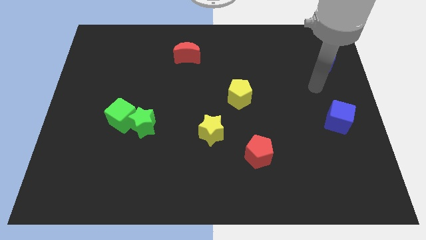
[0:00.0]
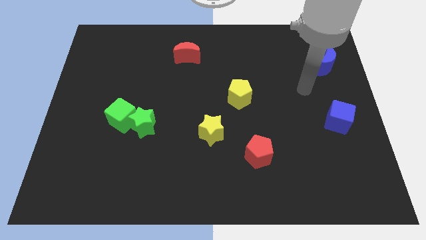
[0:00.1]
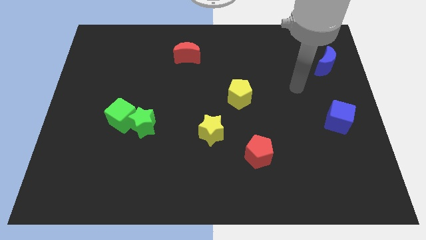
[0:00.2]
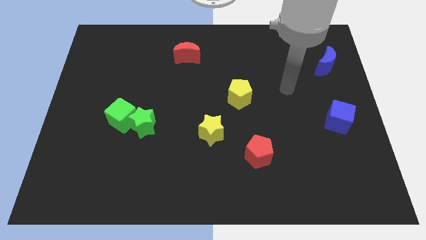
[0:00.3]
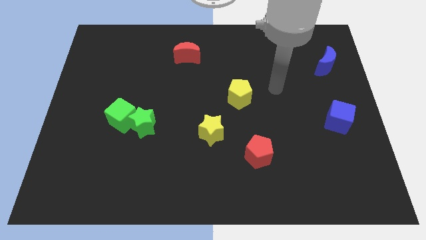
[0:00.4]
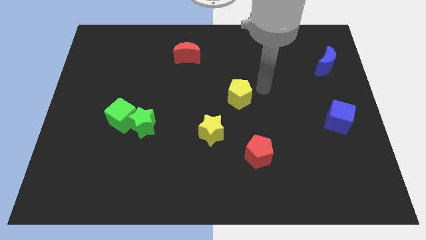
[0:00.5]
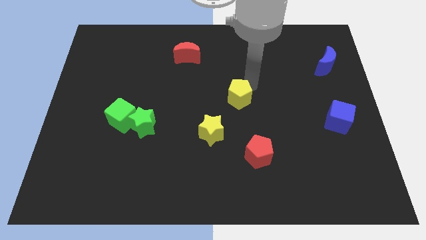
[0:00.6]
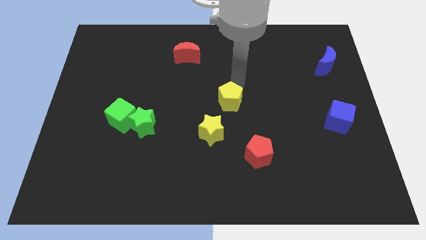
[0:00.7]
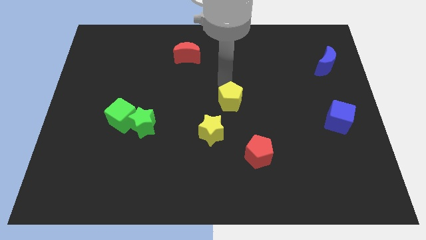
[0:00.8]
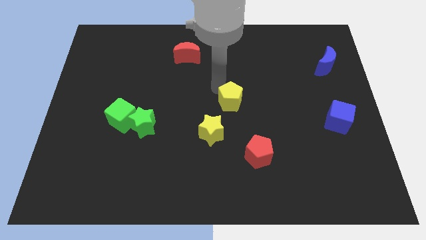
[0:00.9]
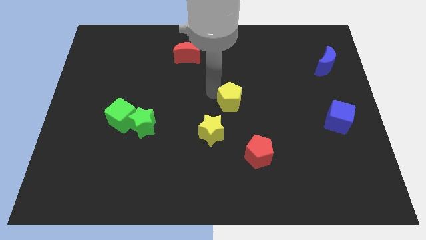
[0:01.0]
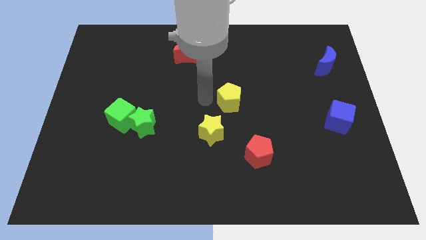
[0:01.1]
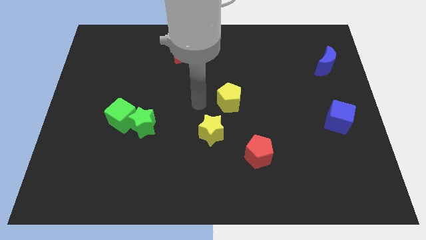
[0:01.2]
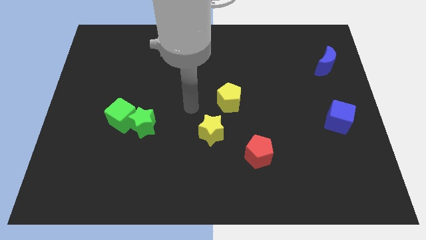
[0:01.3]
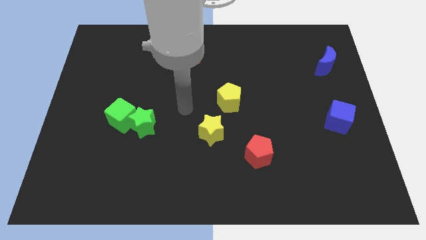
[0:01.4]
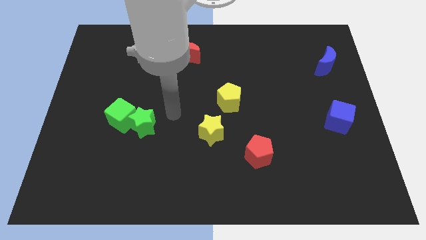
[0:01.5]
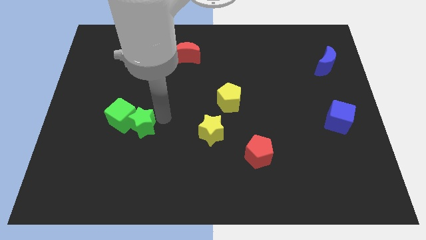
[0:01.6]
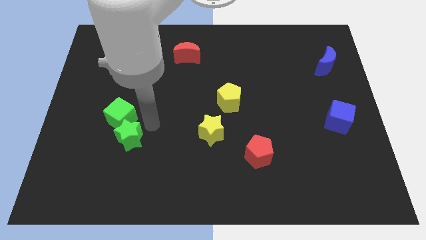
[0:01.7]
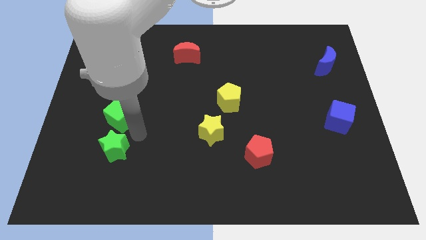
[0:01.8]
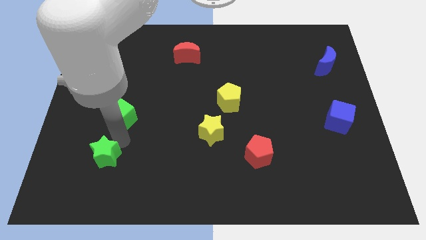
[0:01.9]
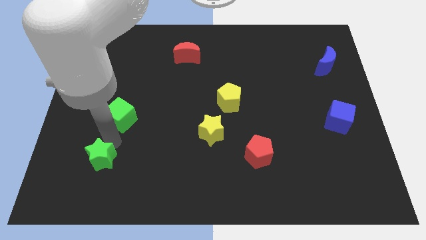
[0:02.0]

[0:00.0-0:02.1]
separate the green cube from the green star

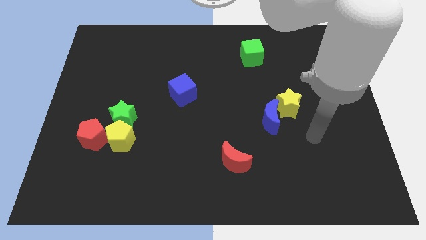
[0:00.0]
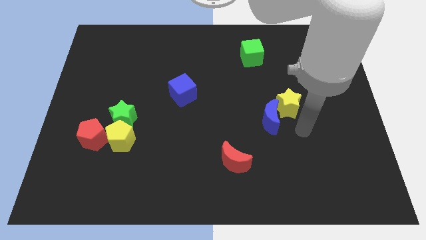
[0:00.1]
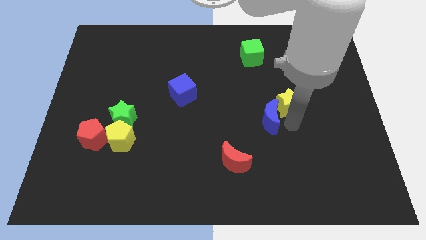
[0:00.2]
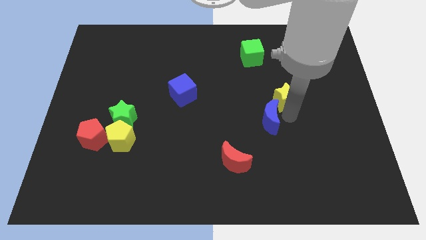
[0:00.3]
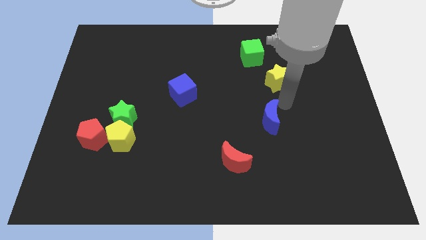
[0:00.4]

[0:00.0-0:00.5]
pull the blue moon apart from the yellow star

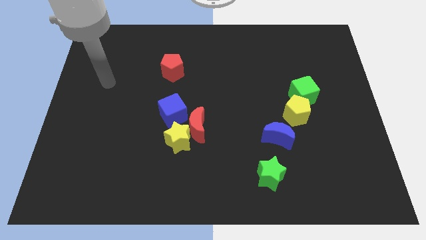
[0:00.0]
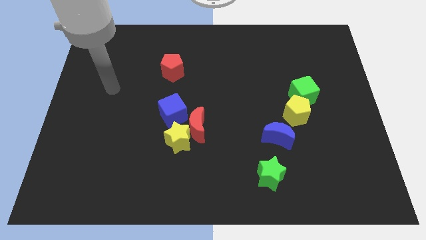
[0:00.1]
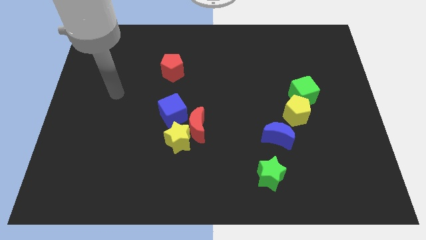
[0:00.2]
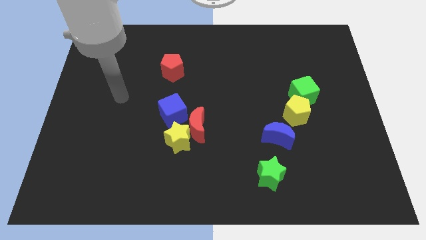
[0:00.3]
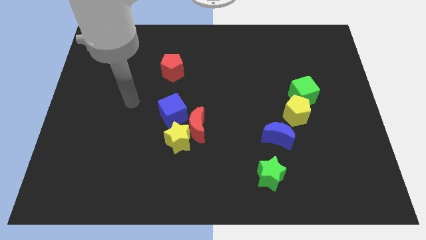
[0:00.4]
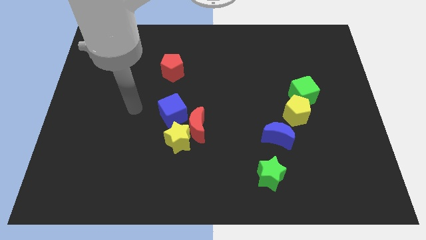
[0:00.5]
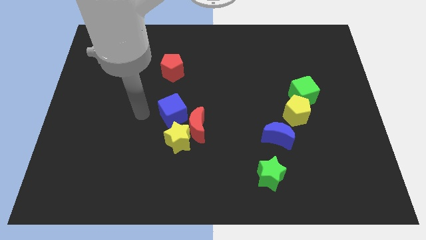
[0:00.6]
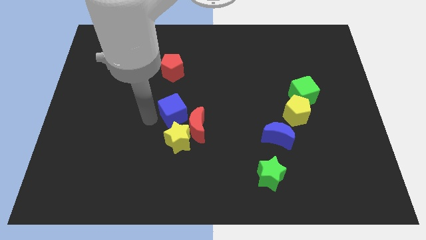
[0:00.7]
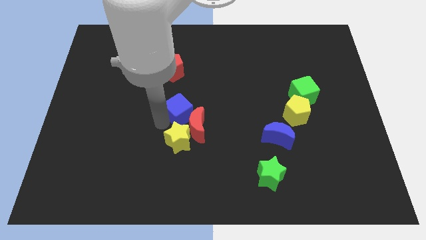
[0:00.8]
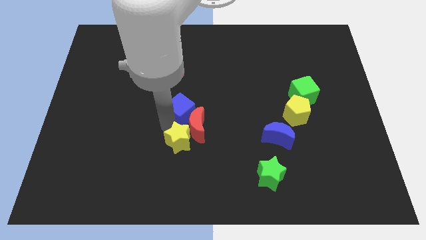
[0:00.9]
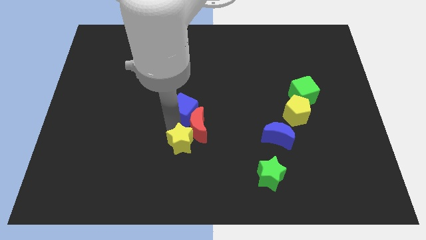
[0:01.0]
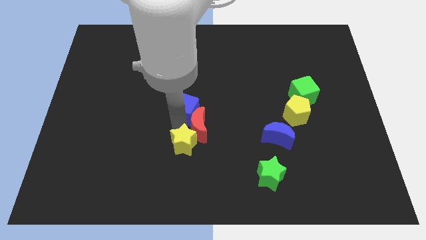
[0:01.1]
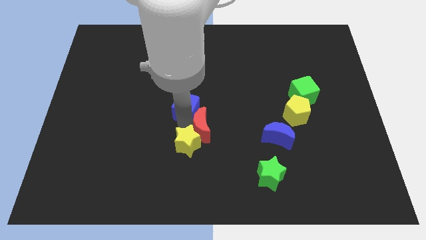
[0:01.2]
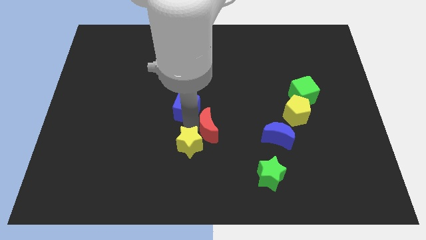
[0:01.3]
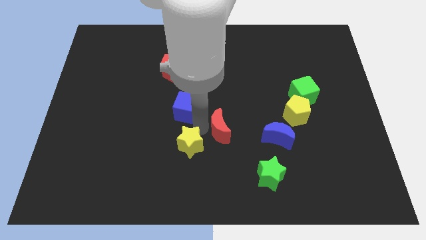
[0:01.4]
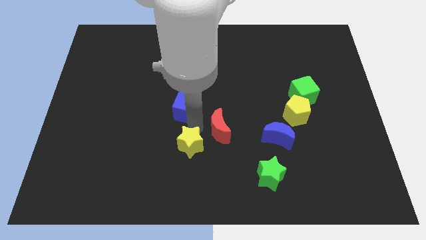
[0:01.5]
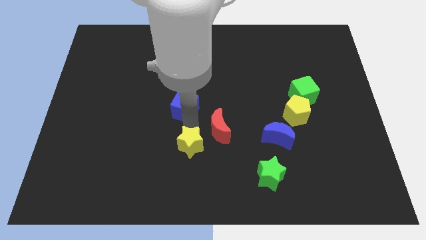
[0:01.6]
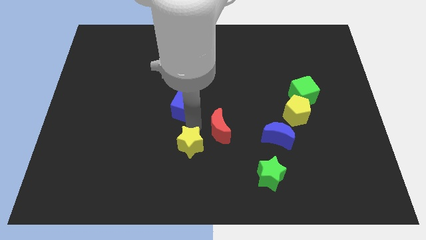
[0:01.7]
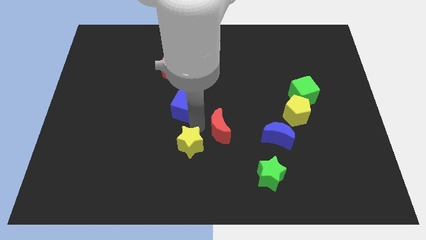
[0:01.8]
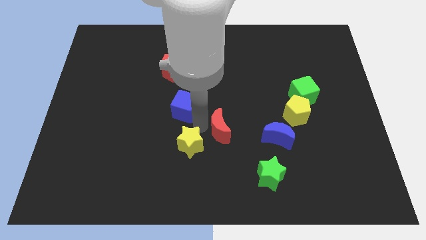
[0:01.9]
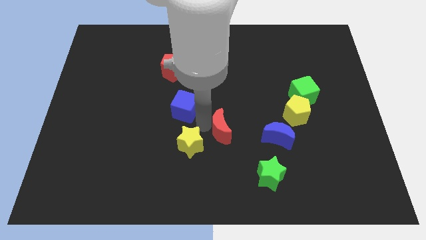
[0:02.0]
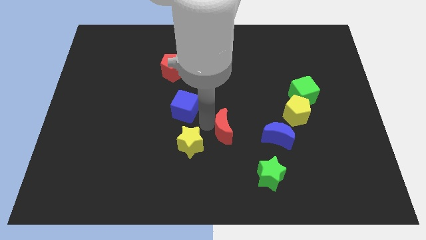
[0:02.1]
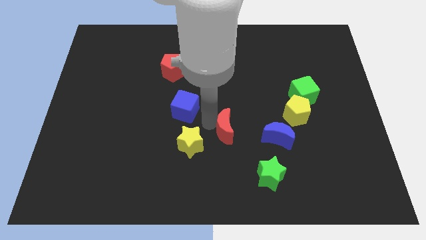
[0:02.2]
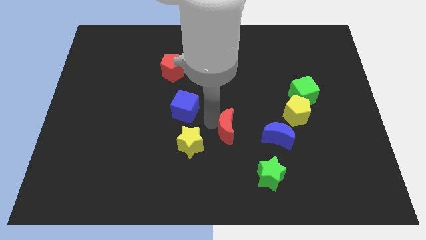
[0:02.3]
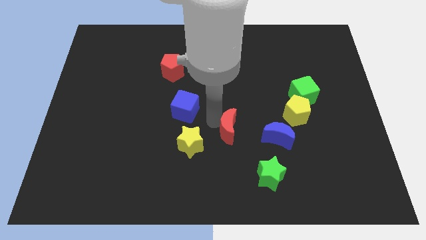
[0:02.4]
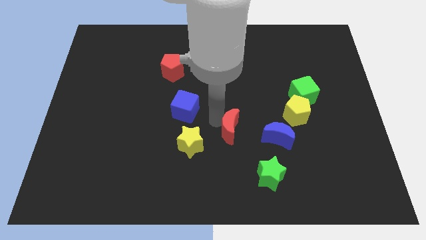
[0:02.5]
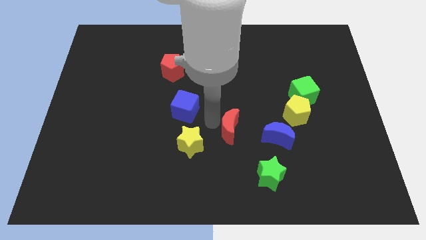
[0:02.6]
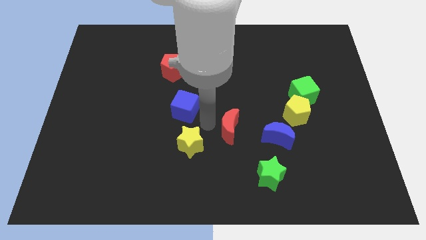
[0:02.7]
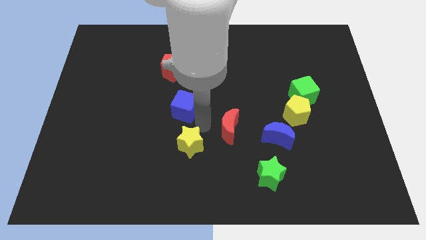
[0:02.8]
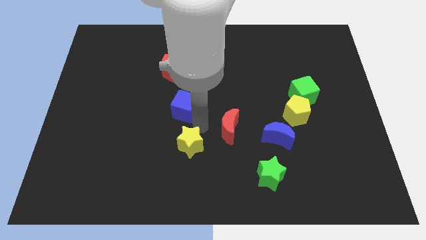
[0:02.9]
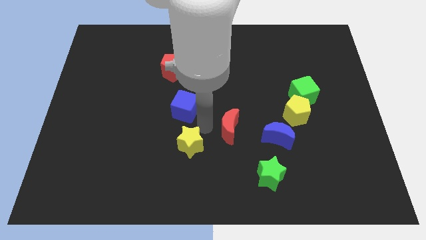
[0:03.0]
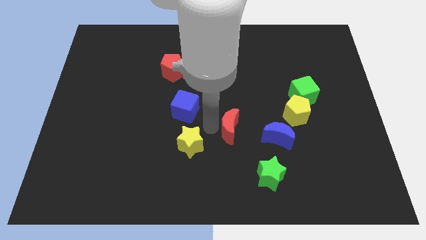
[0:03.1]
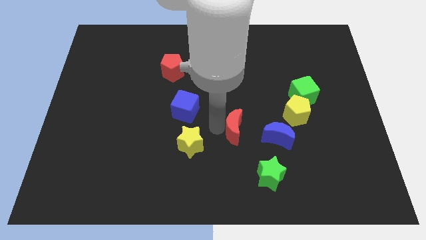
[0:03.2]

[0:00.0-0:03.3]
separate the red moon from the yellow star and blue cube

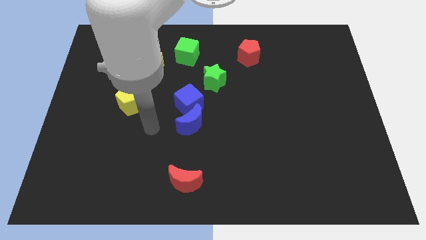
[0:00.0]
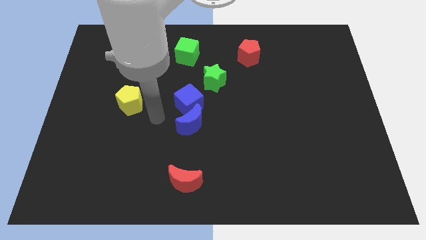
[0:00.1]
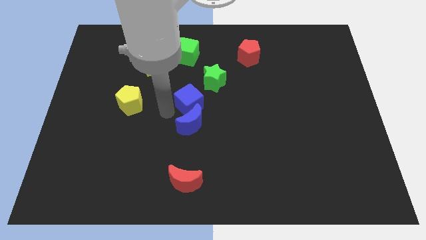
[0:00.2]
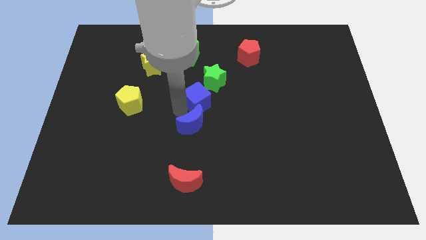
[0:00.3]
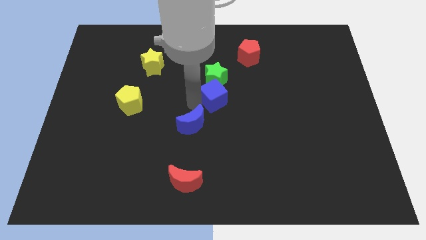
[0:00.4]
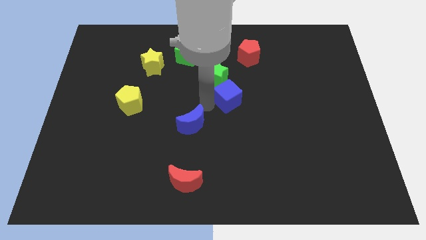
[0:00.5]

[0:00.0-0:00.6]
pull the blue moon apart from the blue cube

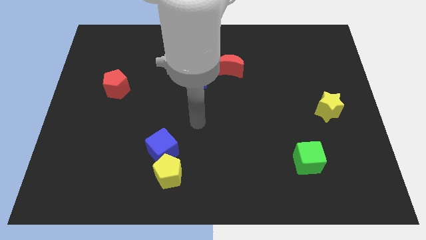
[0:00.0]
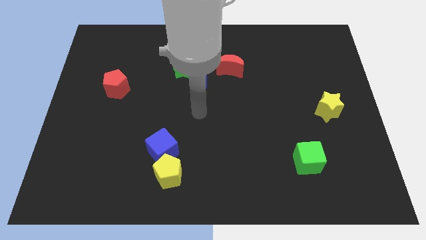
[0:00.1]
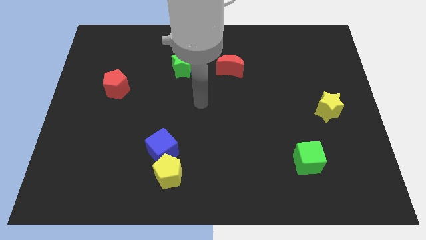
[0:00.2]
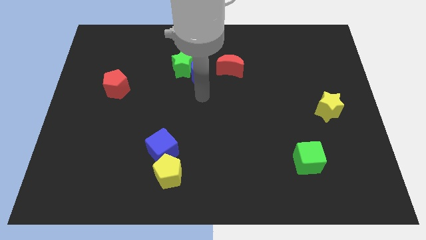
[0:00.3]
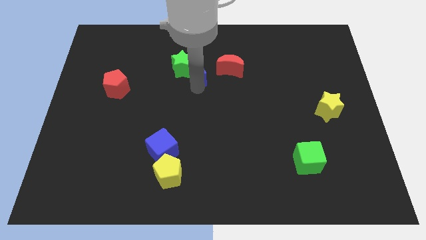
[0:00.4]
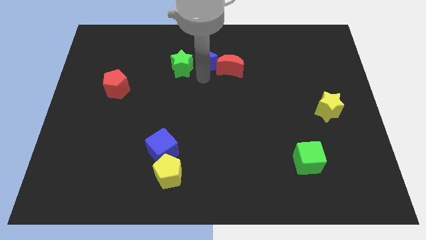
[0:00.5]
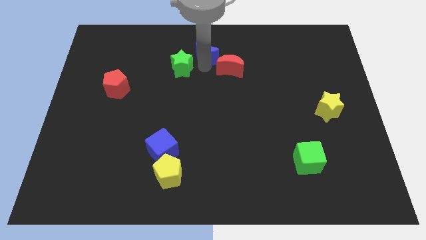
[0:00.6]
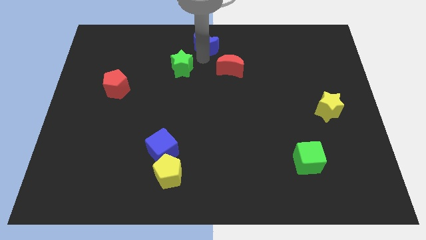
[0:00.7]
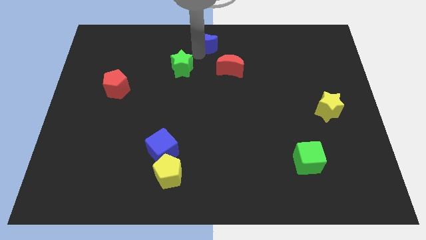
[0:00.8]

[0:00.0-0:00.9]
move the green star away from the blue moon

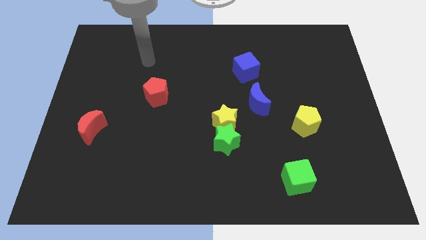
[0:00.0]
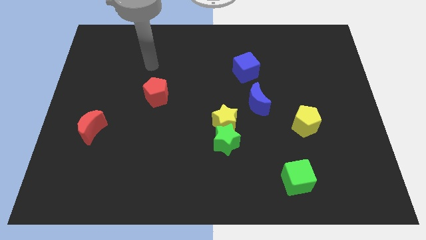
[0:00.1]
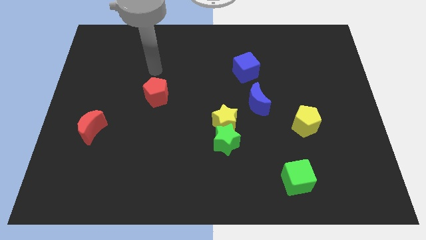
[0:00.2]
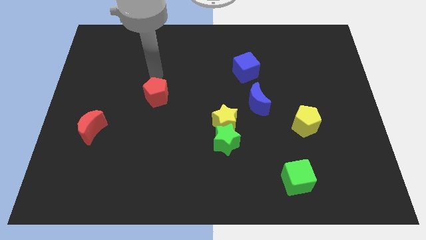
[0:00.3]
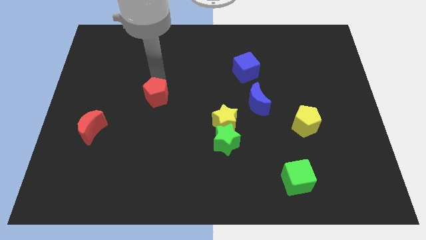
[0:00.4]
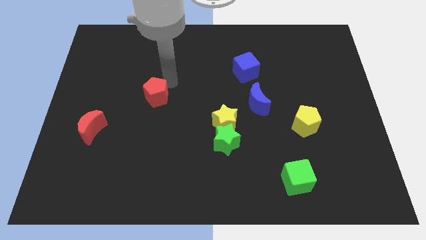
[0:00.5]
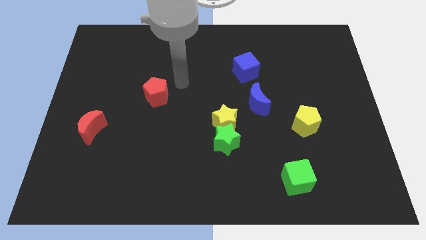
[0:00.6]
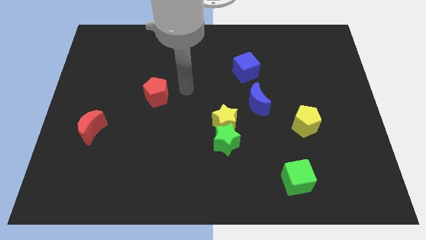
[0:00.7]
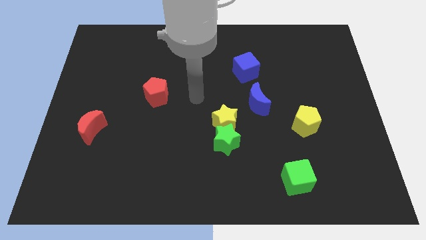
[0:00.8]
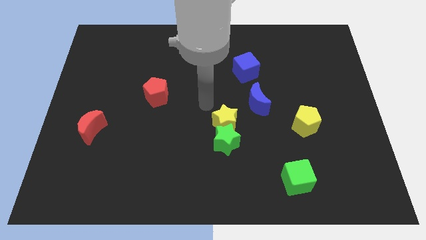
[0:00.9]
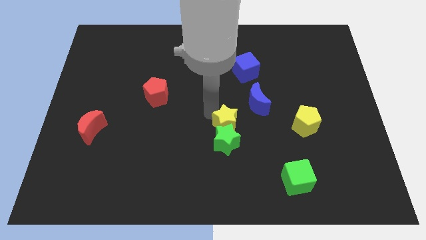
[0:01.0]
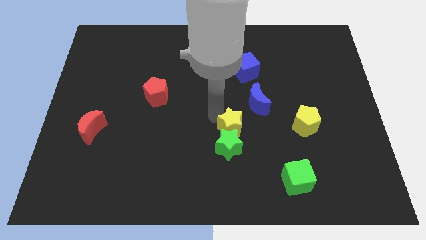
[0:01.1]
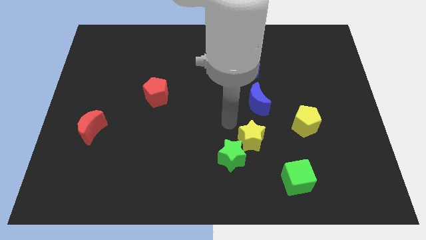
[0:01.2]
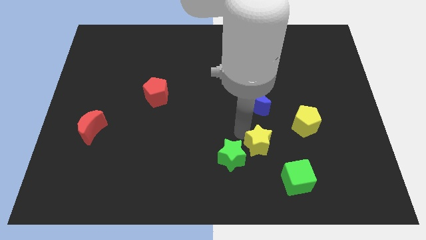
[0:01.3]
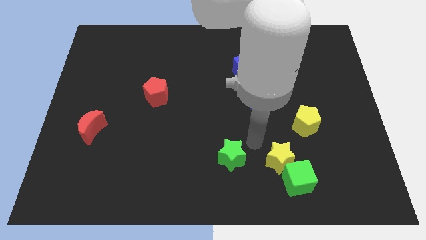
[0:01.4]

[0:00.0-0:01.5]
move the green star away from the yellow star

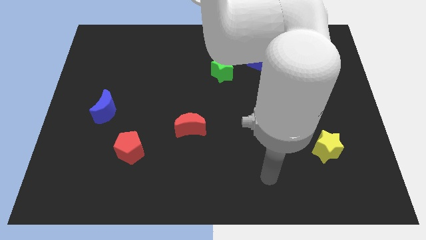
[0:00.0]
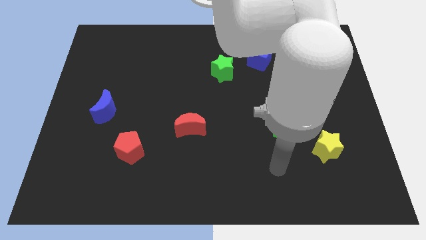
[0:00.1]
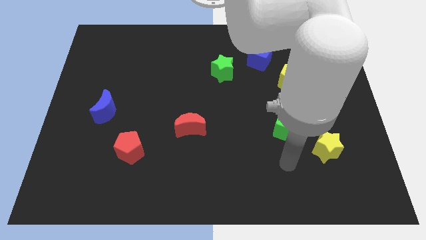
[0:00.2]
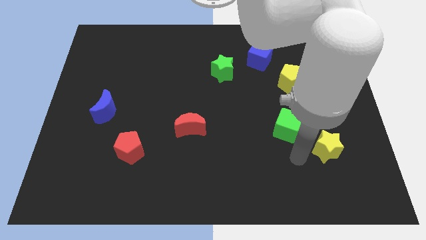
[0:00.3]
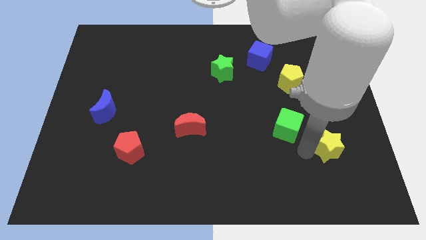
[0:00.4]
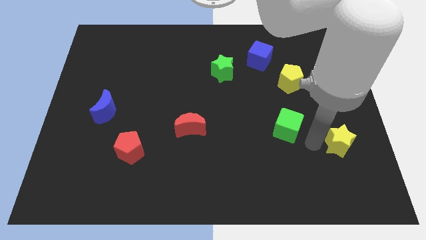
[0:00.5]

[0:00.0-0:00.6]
move the green cube away from the yellow star
